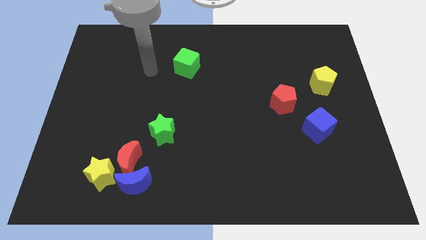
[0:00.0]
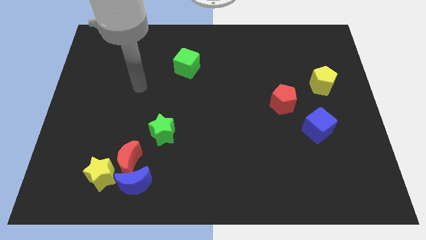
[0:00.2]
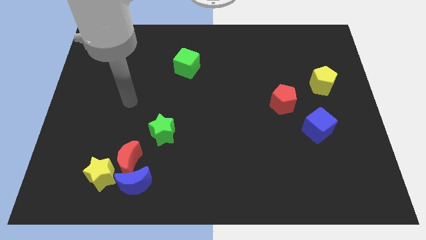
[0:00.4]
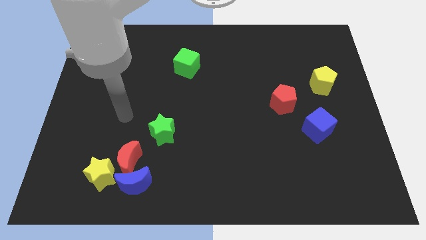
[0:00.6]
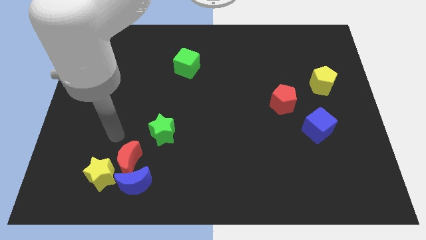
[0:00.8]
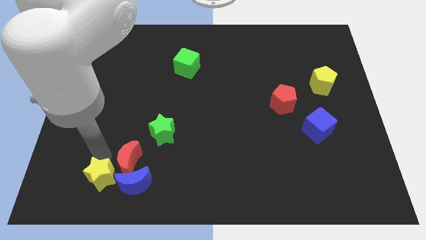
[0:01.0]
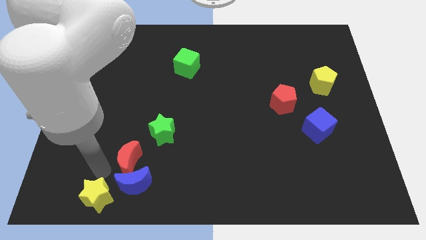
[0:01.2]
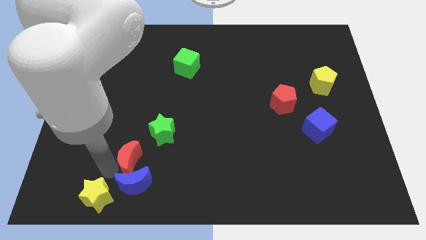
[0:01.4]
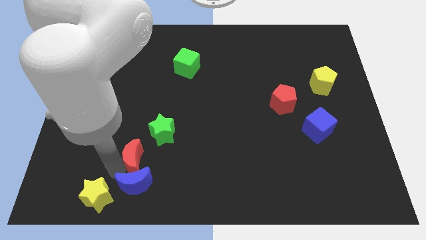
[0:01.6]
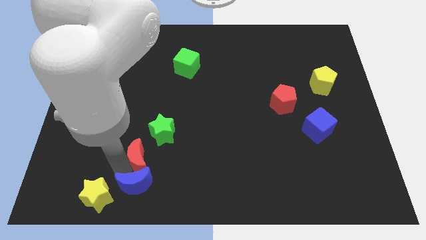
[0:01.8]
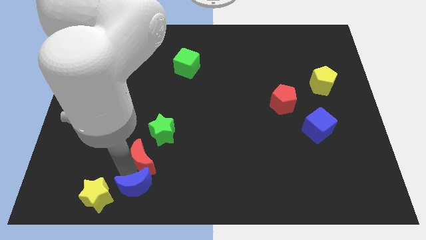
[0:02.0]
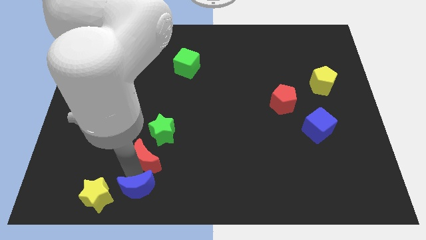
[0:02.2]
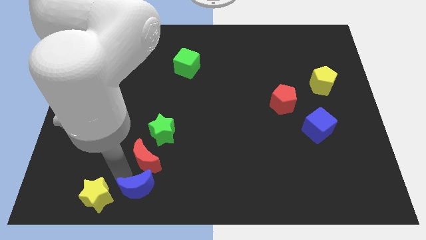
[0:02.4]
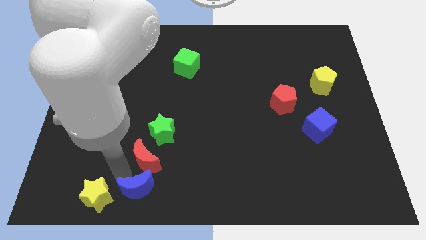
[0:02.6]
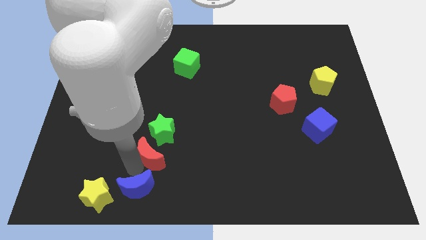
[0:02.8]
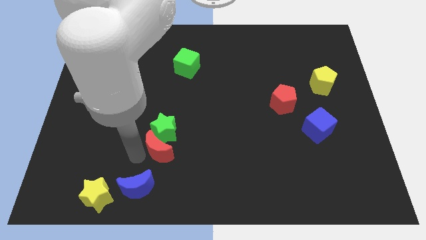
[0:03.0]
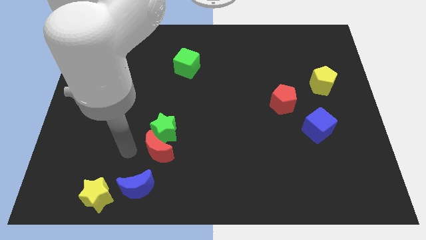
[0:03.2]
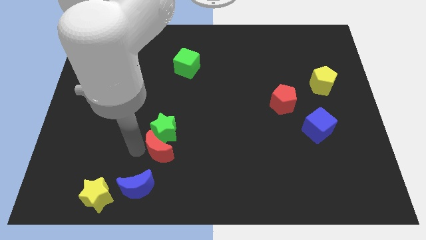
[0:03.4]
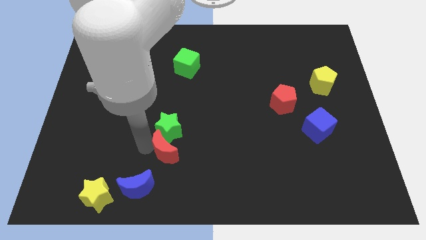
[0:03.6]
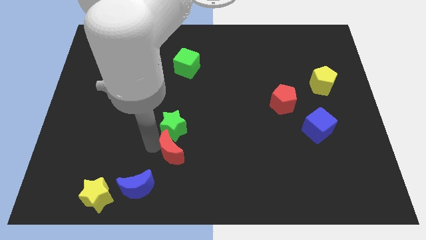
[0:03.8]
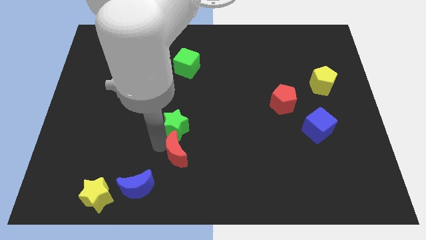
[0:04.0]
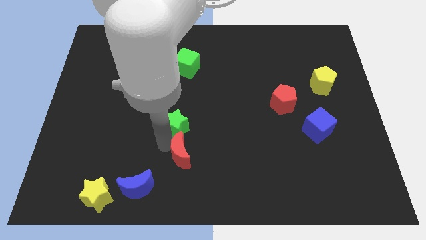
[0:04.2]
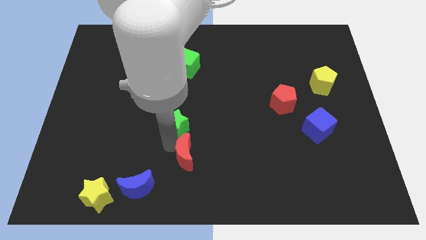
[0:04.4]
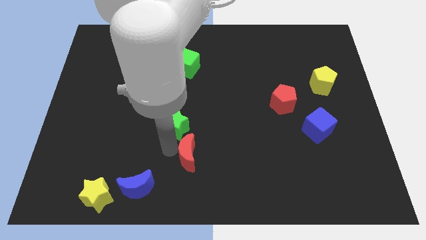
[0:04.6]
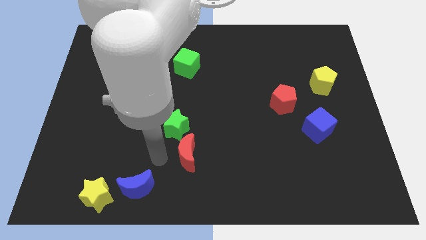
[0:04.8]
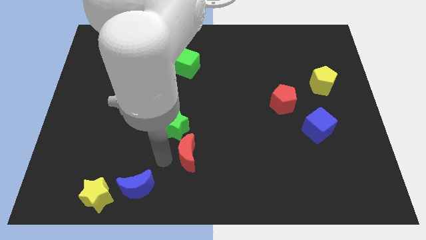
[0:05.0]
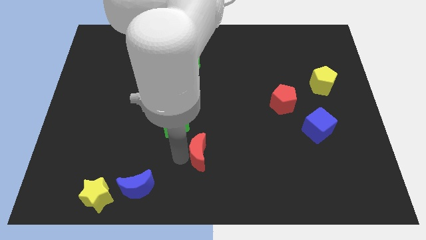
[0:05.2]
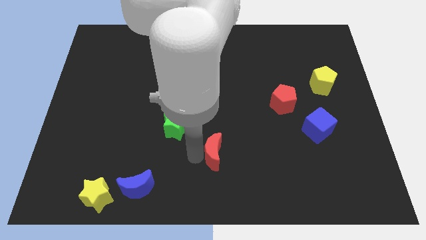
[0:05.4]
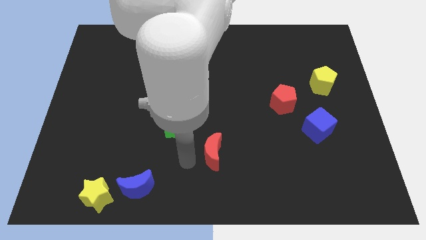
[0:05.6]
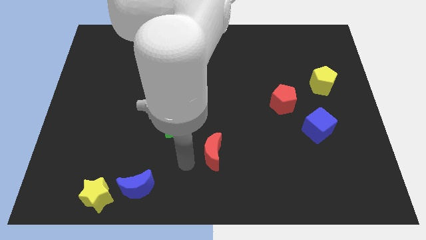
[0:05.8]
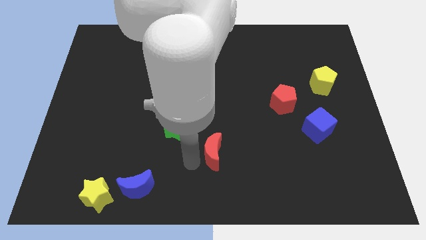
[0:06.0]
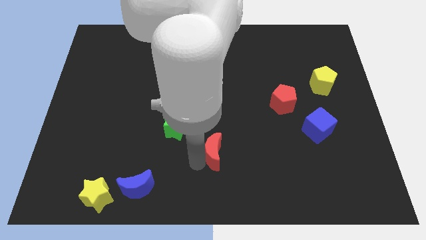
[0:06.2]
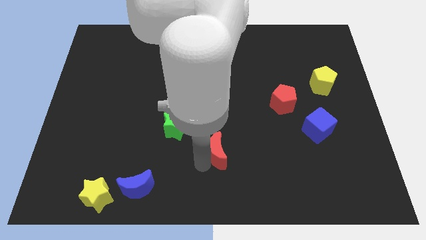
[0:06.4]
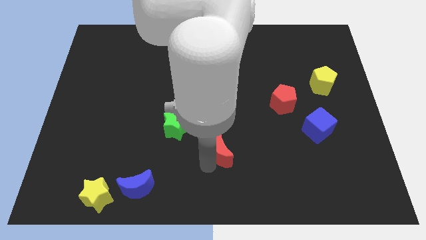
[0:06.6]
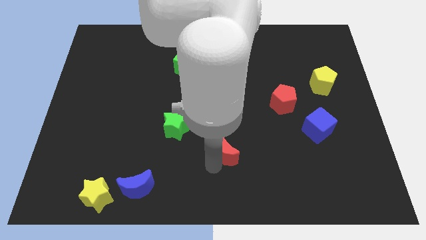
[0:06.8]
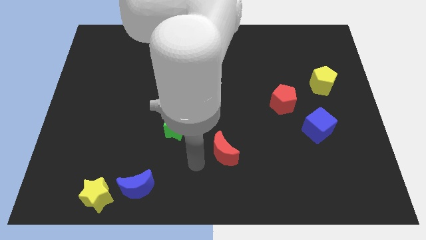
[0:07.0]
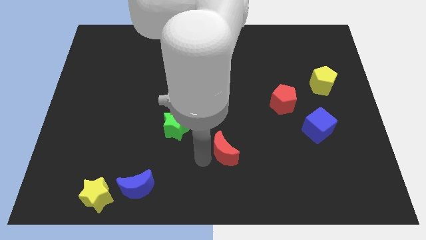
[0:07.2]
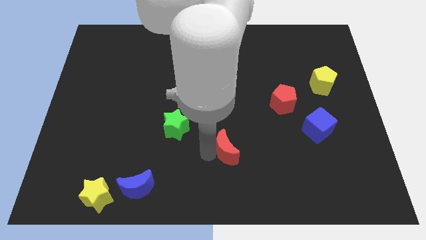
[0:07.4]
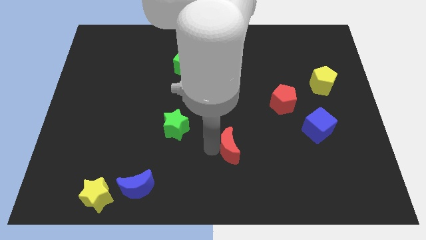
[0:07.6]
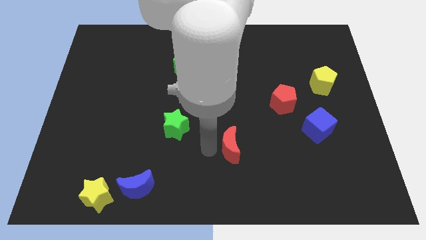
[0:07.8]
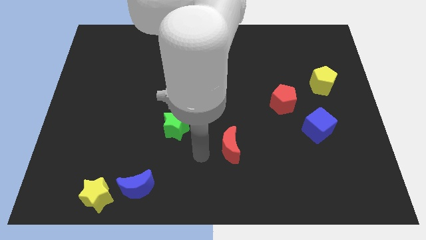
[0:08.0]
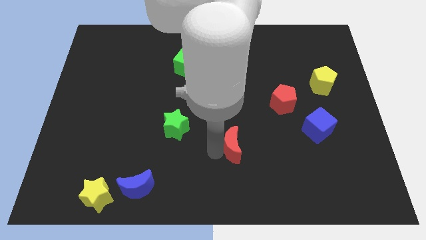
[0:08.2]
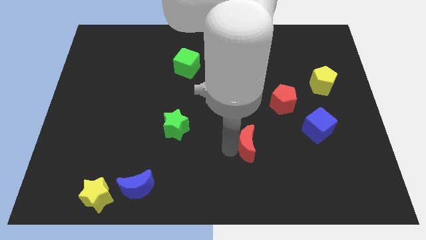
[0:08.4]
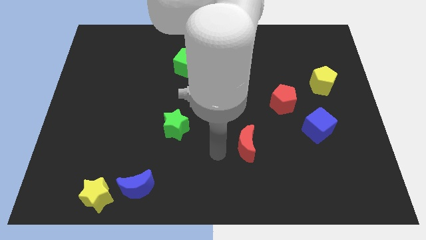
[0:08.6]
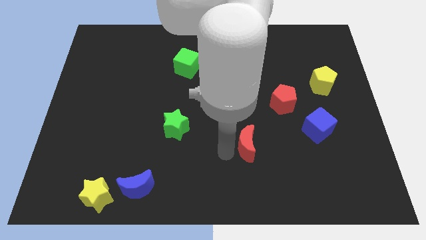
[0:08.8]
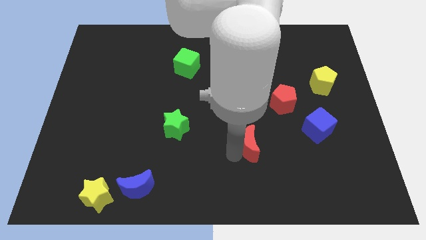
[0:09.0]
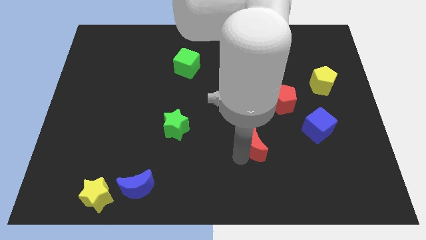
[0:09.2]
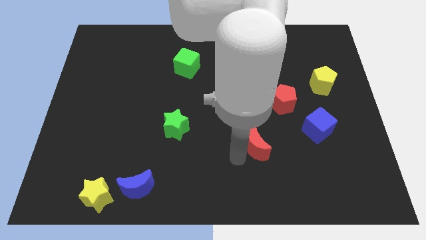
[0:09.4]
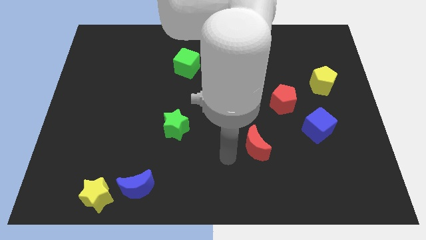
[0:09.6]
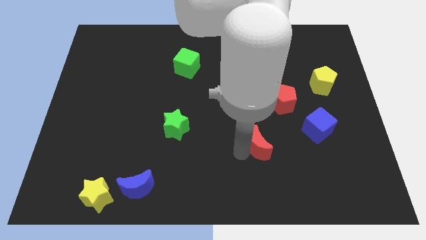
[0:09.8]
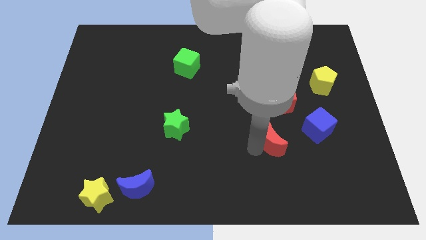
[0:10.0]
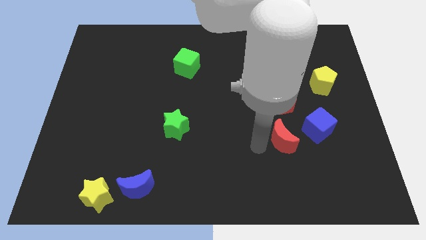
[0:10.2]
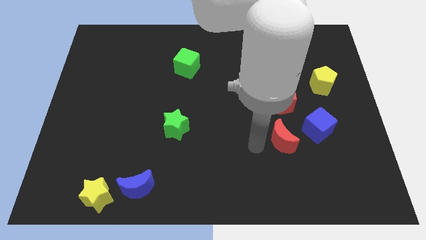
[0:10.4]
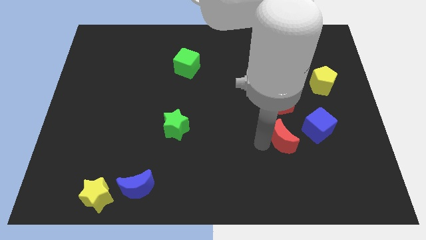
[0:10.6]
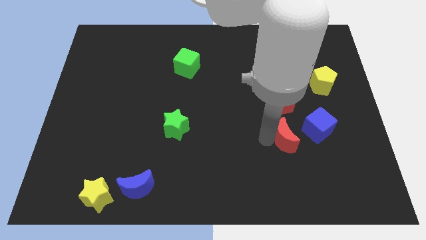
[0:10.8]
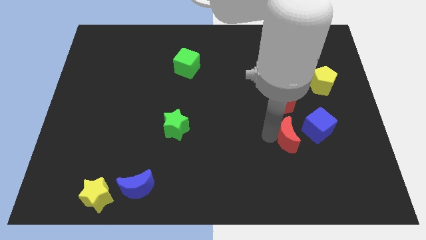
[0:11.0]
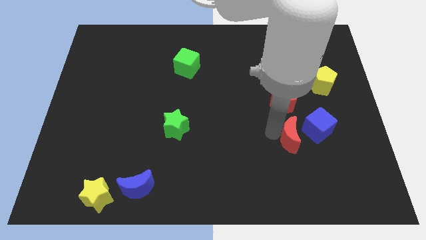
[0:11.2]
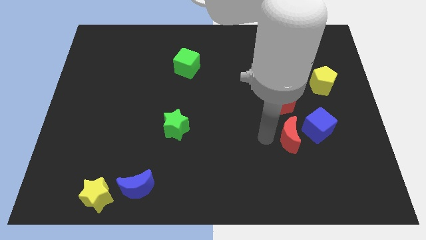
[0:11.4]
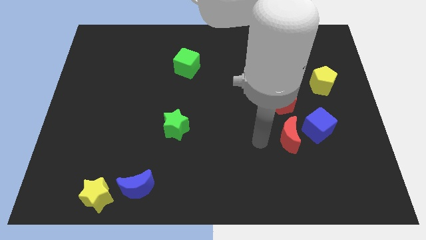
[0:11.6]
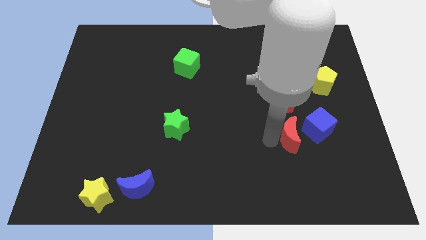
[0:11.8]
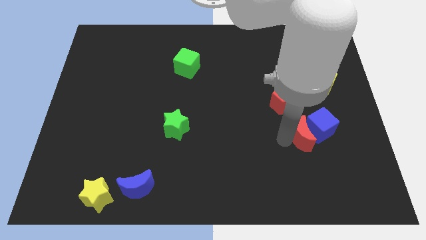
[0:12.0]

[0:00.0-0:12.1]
put the red moon close to the blue cube

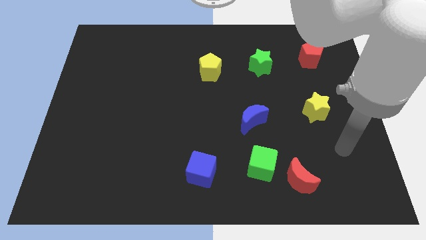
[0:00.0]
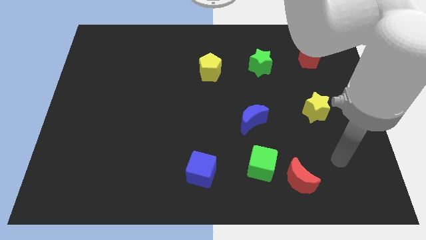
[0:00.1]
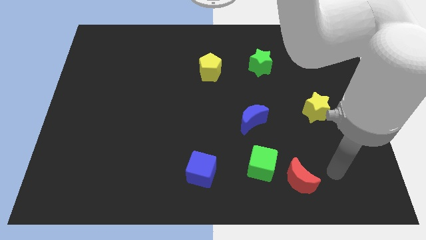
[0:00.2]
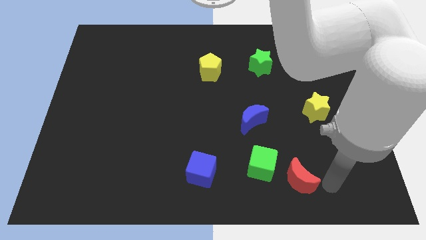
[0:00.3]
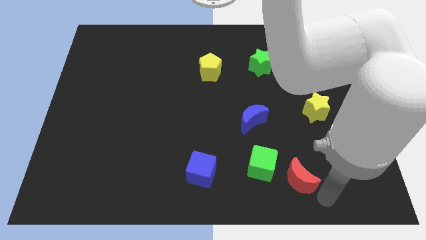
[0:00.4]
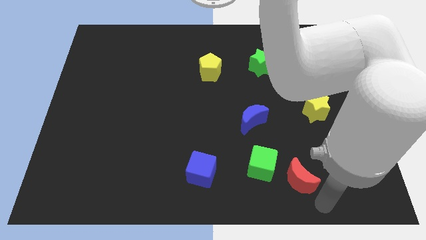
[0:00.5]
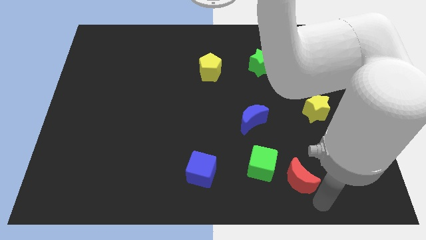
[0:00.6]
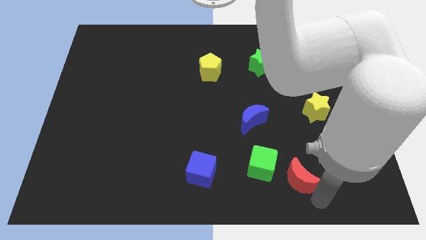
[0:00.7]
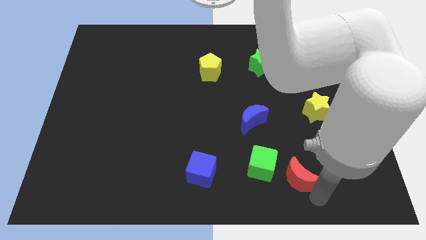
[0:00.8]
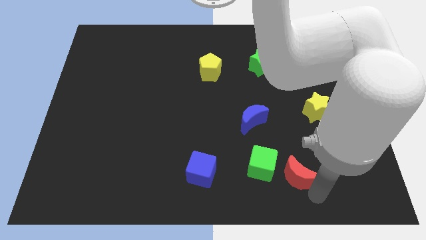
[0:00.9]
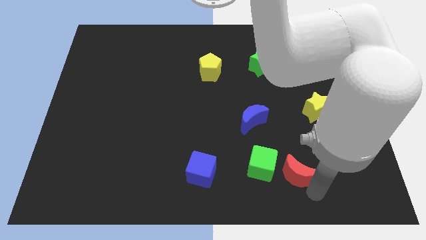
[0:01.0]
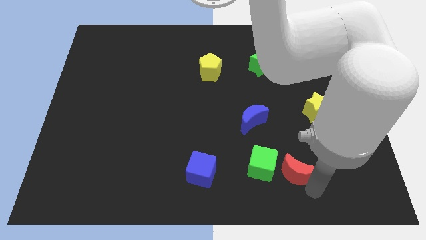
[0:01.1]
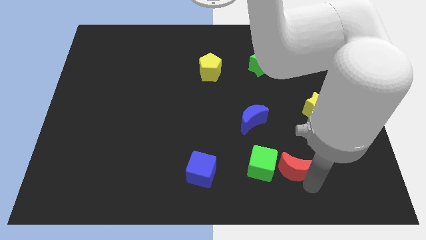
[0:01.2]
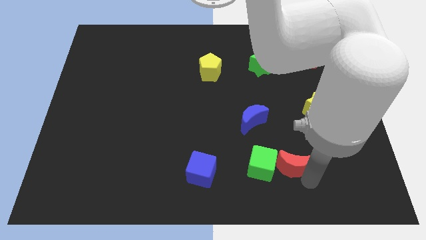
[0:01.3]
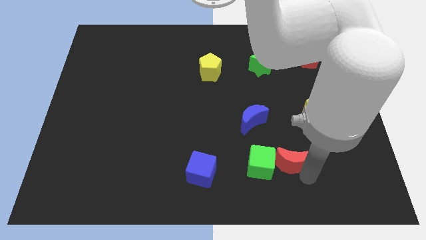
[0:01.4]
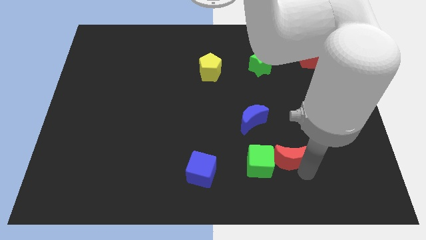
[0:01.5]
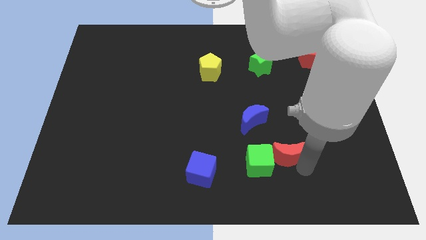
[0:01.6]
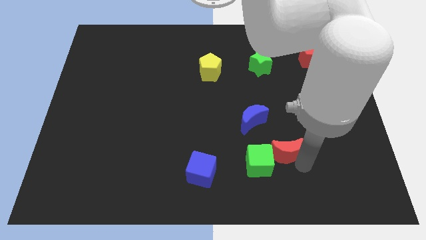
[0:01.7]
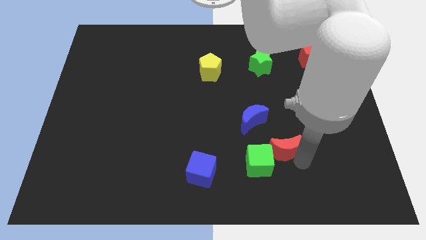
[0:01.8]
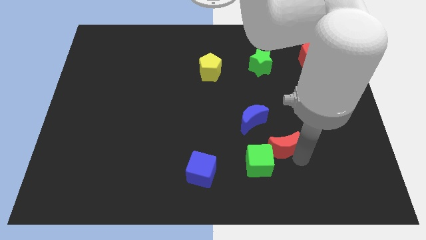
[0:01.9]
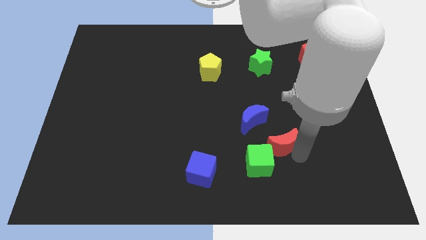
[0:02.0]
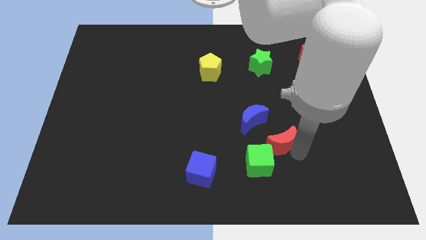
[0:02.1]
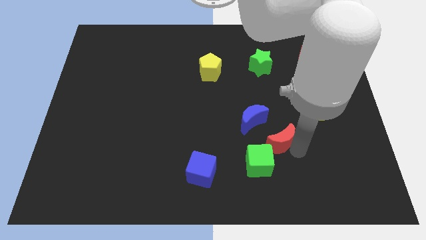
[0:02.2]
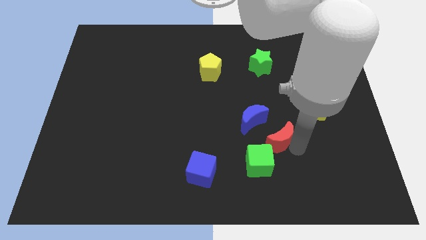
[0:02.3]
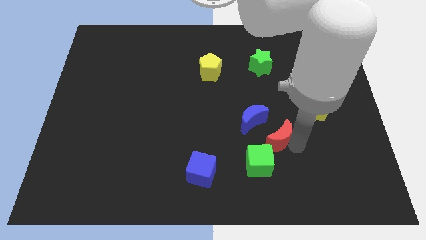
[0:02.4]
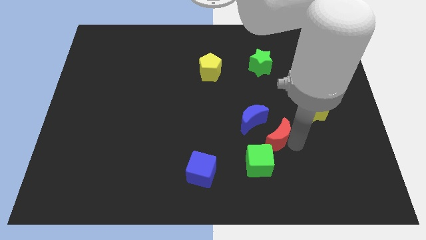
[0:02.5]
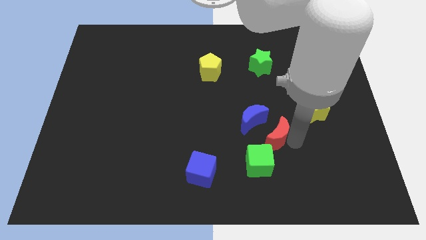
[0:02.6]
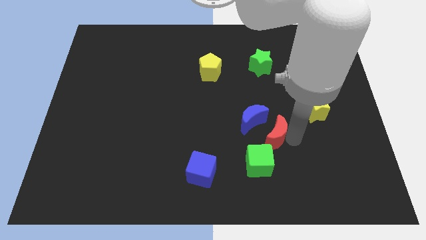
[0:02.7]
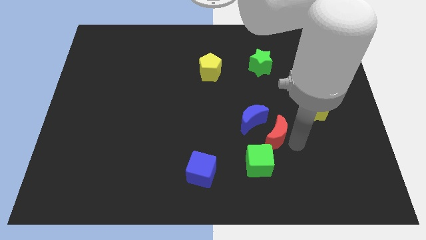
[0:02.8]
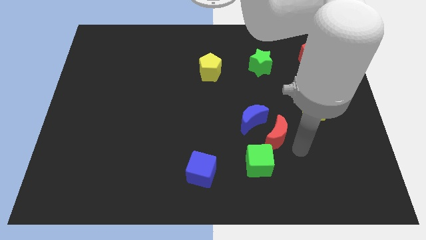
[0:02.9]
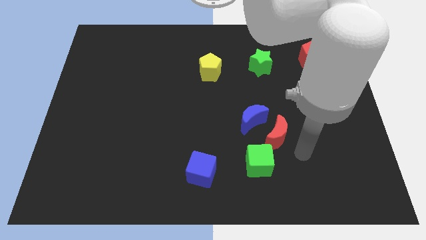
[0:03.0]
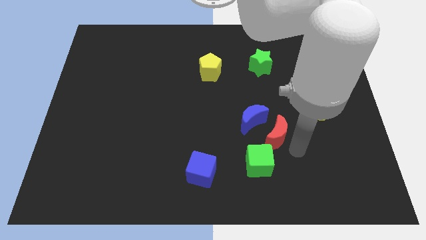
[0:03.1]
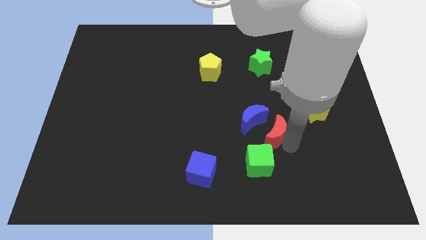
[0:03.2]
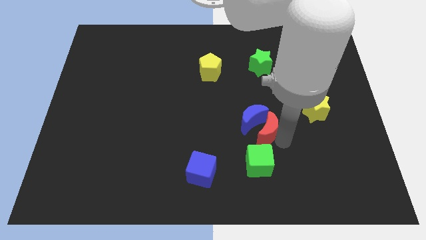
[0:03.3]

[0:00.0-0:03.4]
push the red moon next to the blue moon
